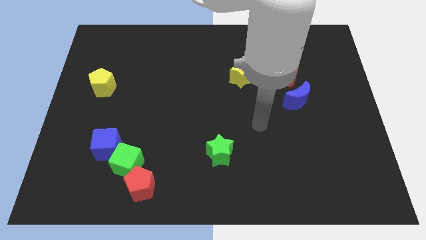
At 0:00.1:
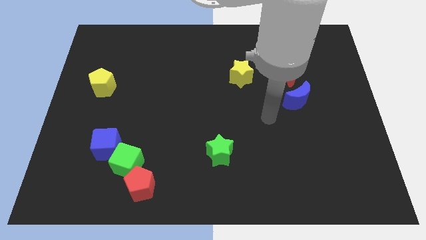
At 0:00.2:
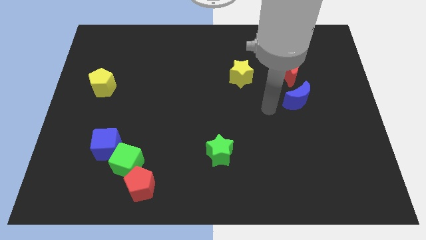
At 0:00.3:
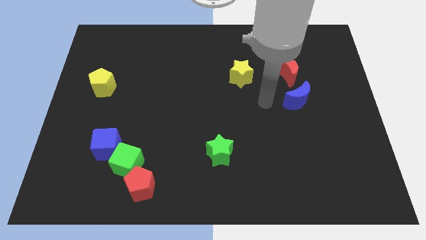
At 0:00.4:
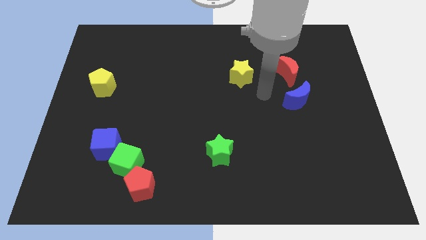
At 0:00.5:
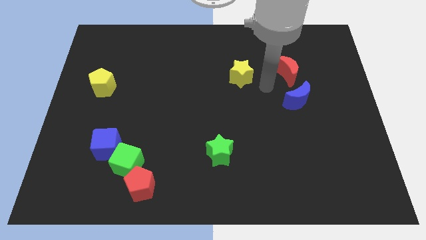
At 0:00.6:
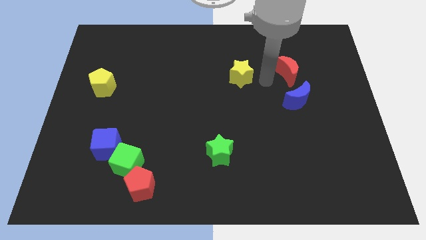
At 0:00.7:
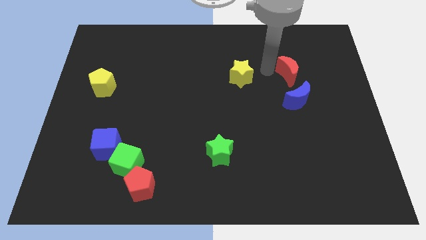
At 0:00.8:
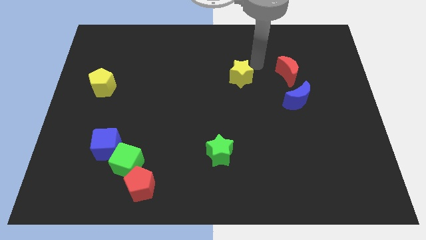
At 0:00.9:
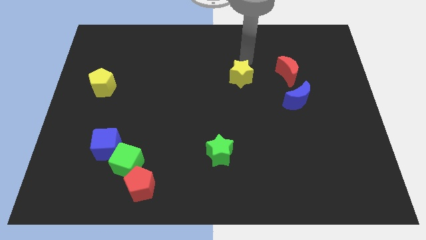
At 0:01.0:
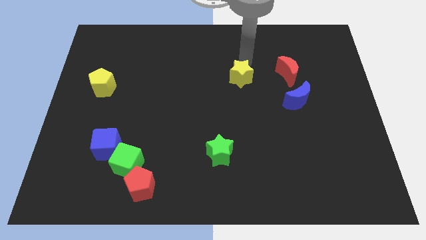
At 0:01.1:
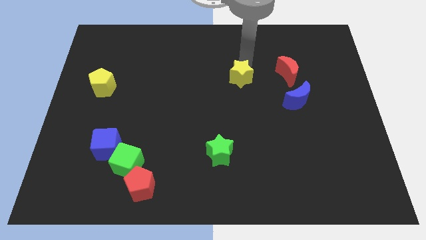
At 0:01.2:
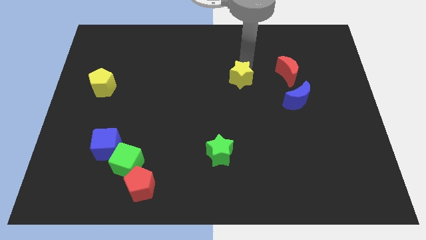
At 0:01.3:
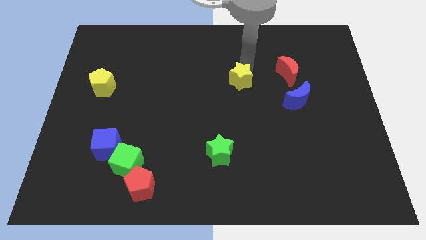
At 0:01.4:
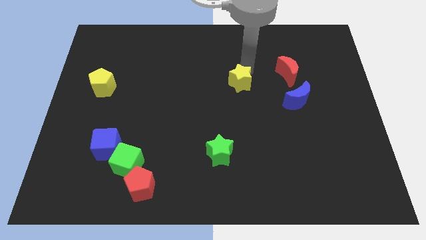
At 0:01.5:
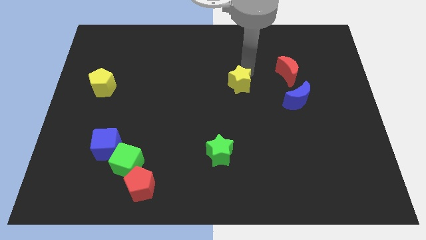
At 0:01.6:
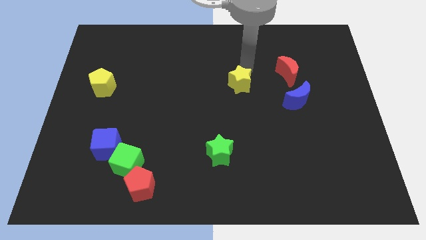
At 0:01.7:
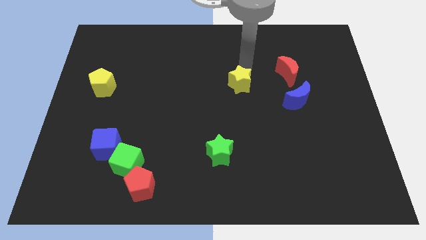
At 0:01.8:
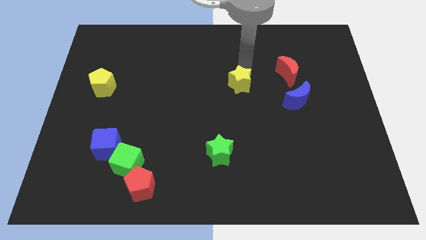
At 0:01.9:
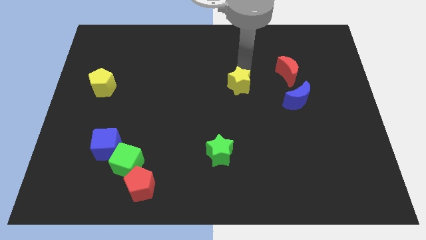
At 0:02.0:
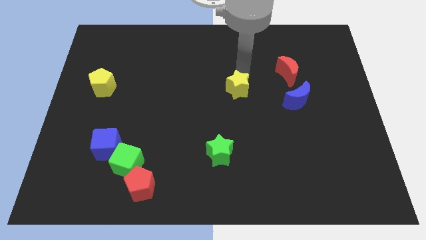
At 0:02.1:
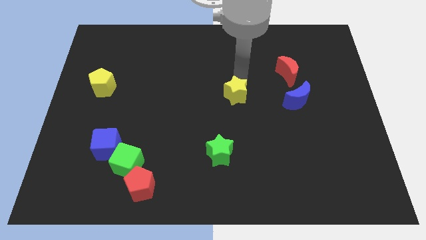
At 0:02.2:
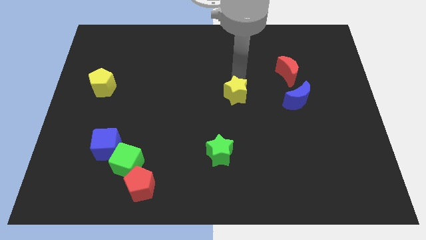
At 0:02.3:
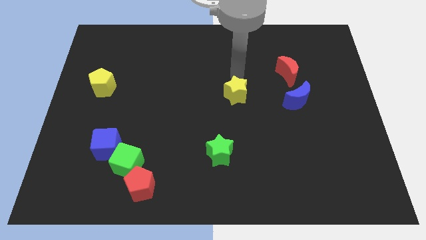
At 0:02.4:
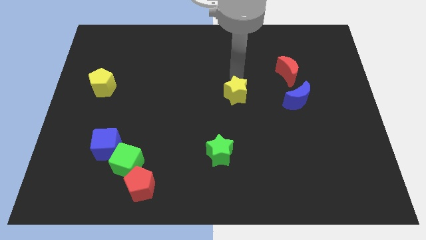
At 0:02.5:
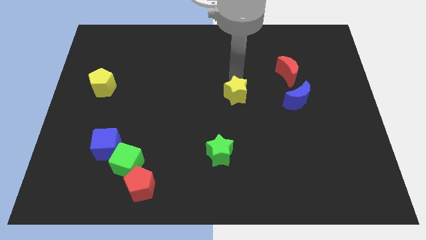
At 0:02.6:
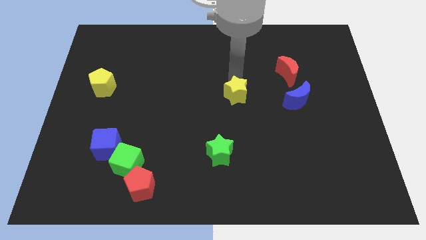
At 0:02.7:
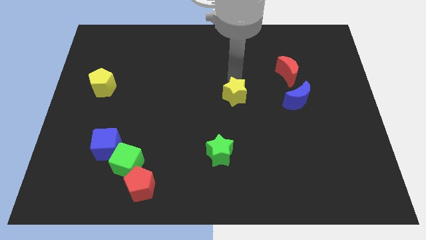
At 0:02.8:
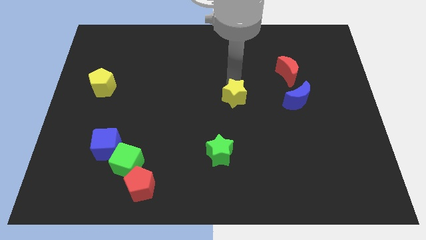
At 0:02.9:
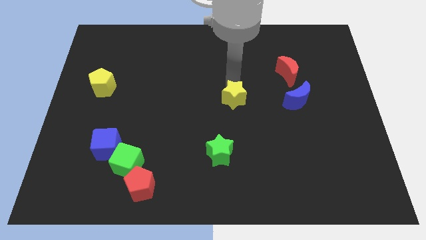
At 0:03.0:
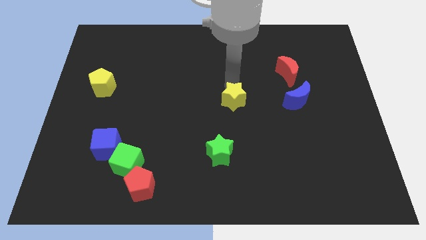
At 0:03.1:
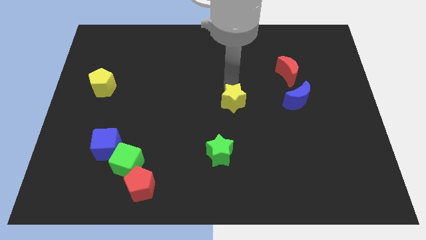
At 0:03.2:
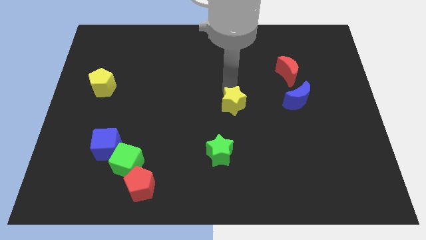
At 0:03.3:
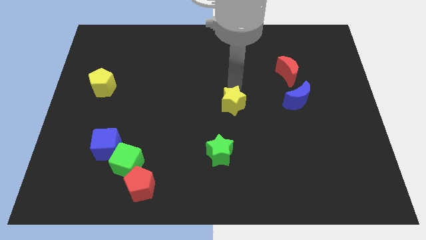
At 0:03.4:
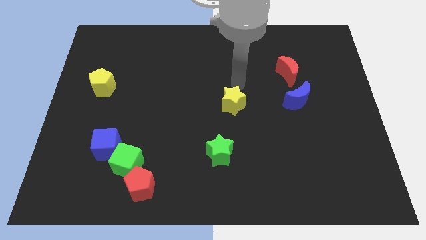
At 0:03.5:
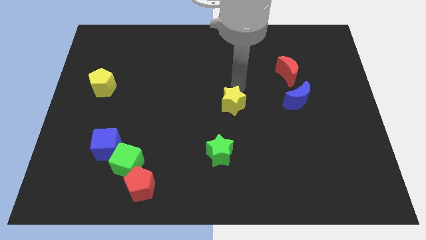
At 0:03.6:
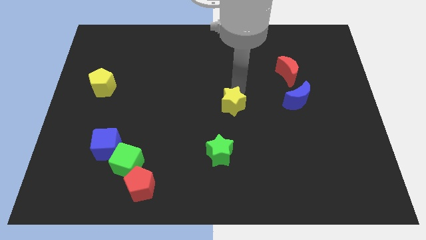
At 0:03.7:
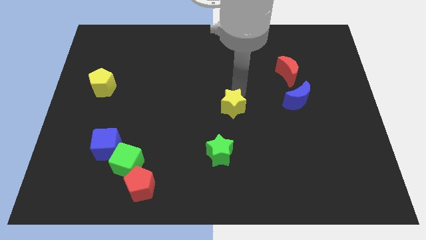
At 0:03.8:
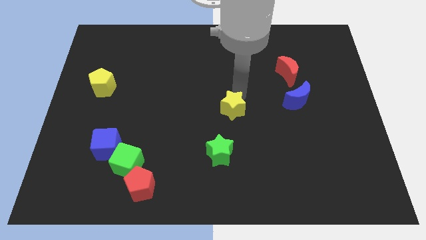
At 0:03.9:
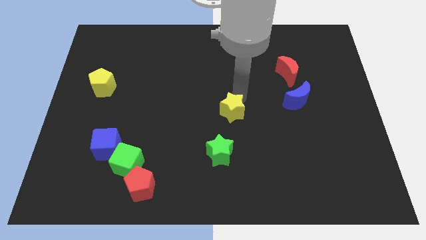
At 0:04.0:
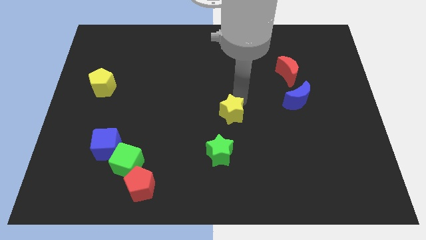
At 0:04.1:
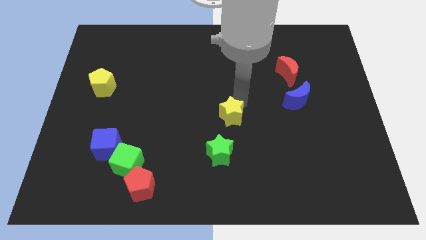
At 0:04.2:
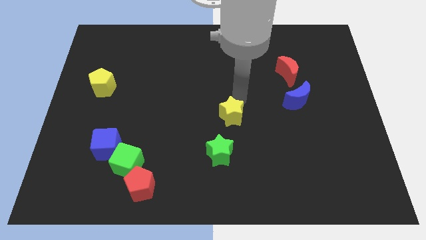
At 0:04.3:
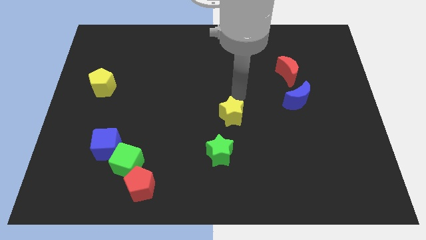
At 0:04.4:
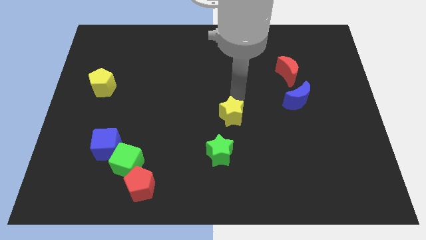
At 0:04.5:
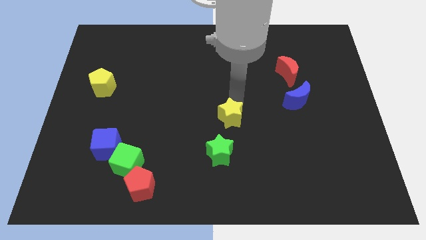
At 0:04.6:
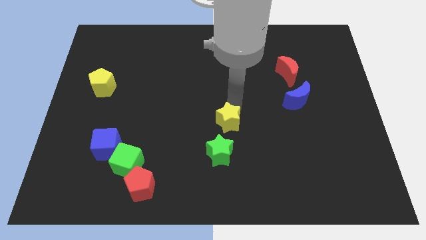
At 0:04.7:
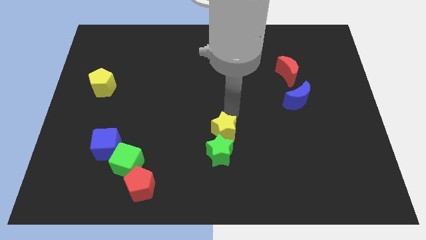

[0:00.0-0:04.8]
move the yellow star close to the green star

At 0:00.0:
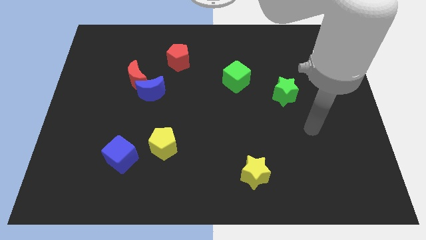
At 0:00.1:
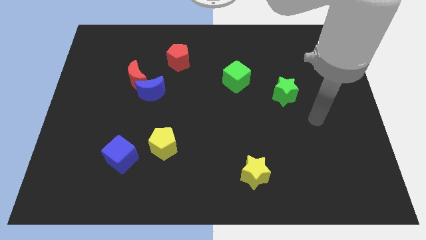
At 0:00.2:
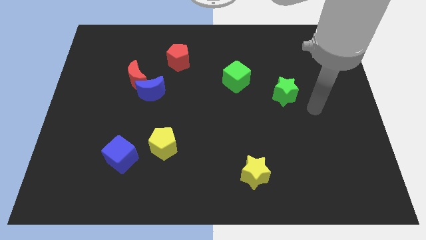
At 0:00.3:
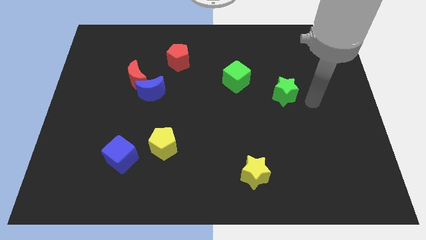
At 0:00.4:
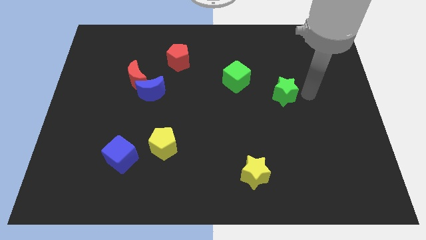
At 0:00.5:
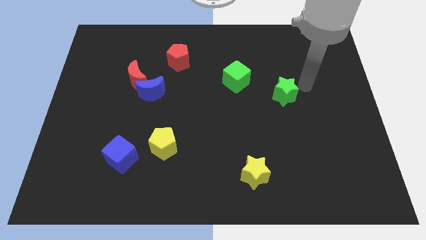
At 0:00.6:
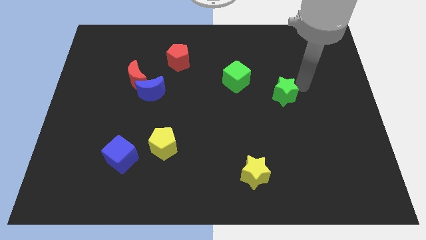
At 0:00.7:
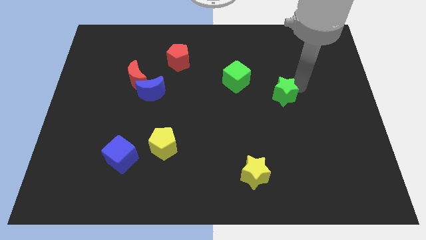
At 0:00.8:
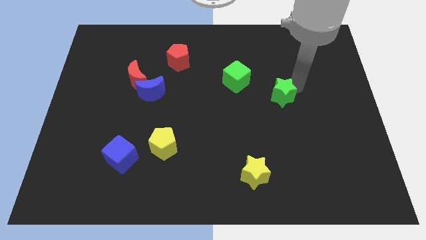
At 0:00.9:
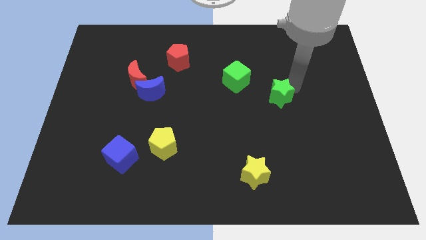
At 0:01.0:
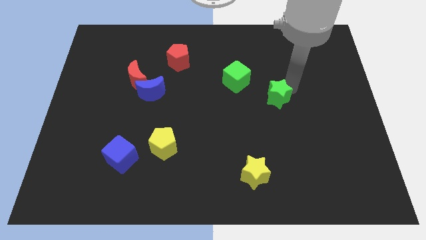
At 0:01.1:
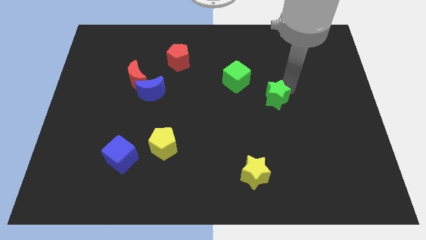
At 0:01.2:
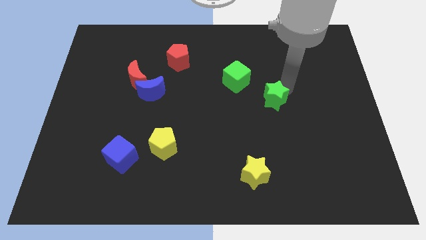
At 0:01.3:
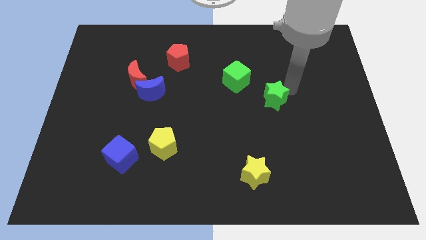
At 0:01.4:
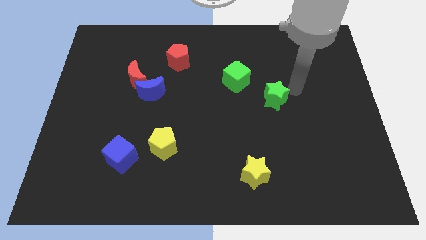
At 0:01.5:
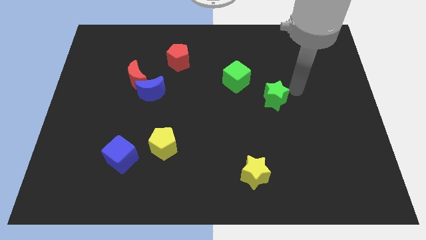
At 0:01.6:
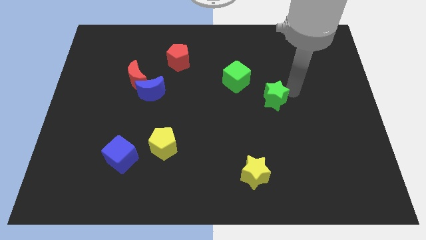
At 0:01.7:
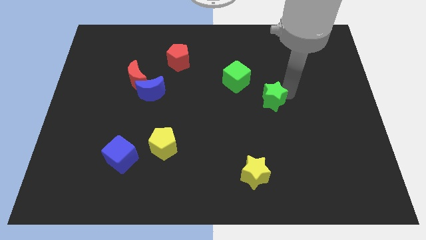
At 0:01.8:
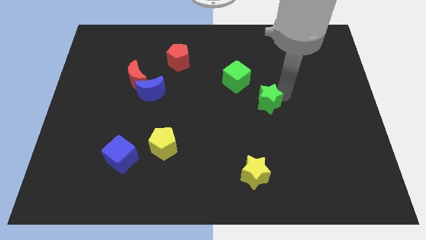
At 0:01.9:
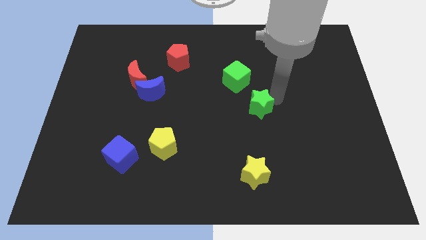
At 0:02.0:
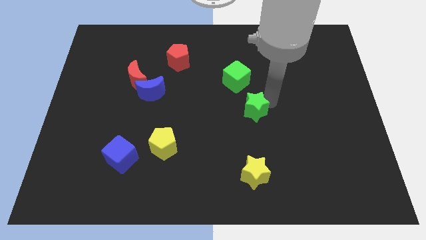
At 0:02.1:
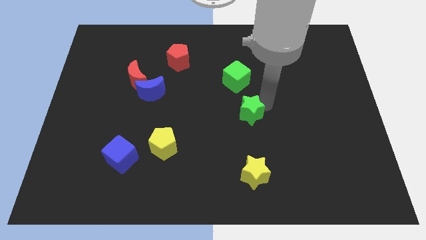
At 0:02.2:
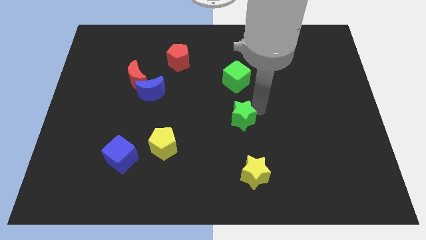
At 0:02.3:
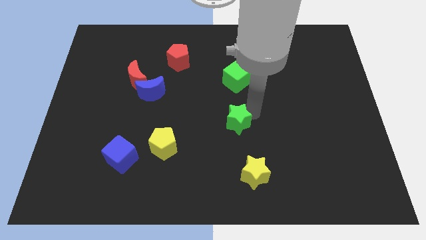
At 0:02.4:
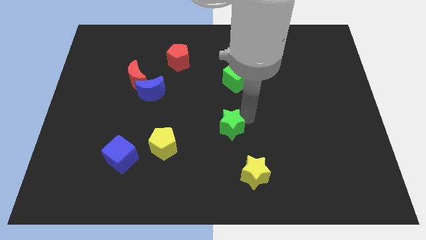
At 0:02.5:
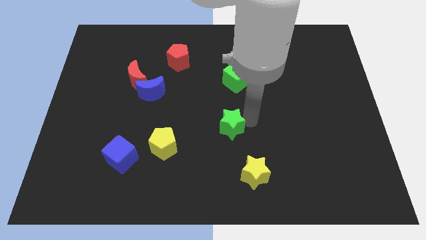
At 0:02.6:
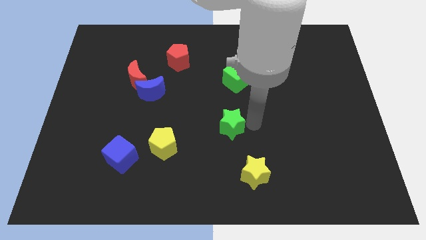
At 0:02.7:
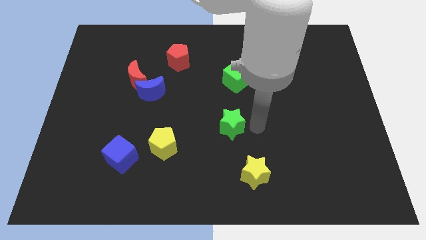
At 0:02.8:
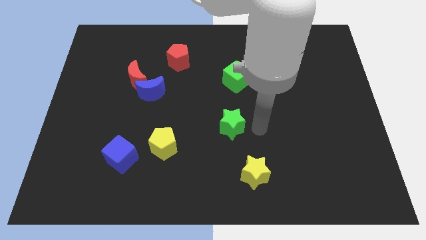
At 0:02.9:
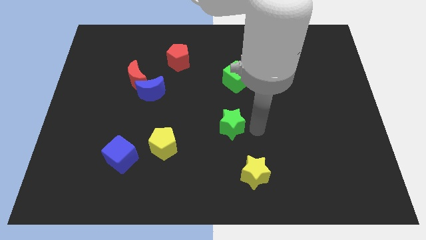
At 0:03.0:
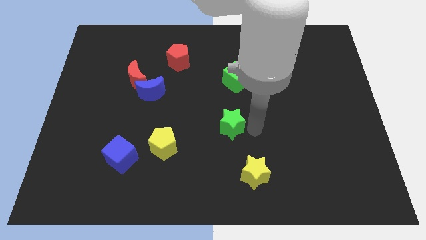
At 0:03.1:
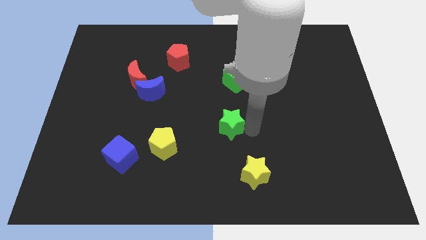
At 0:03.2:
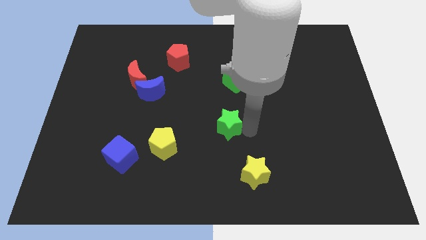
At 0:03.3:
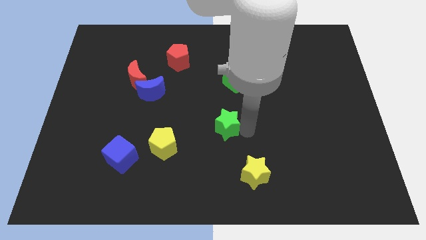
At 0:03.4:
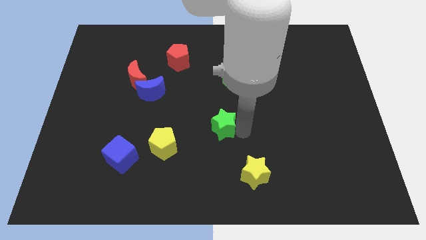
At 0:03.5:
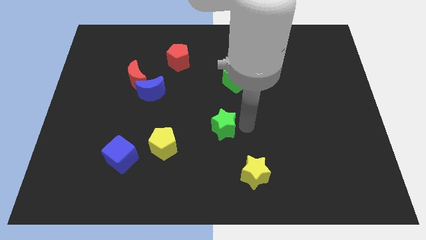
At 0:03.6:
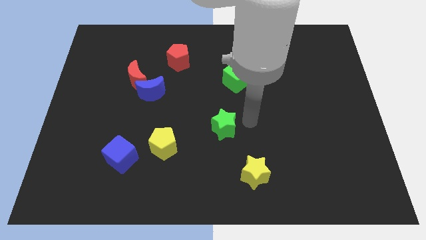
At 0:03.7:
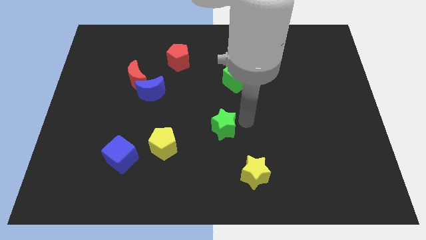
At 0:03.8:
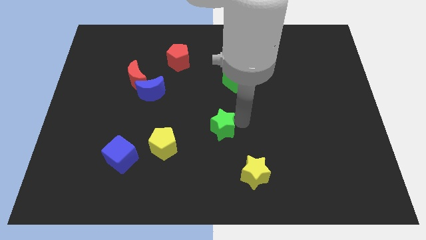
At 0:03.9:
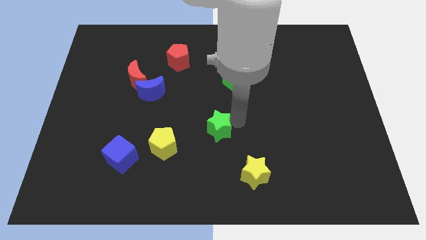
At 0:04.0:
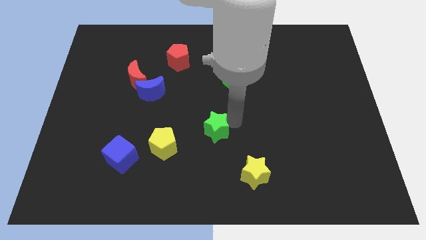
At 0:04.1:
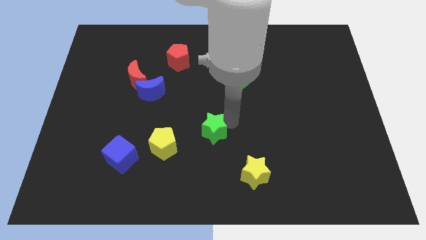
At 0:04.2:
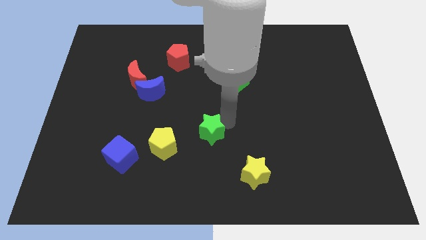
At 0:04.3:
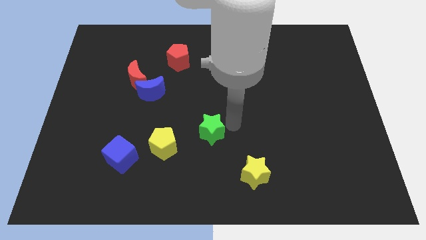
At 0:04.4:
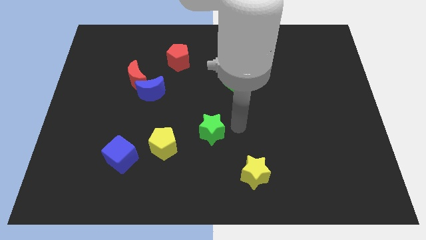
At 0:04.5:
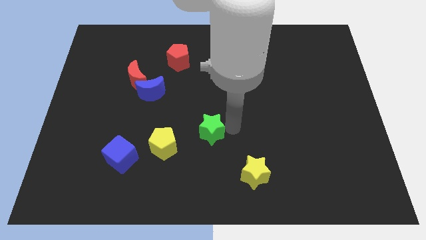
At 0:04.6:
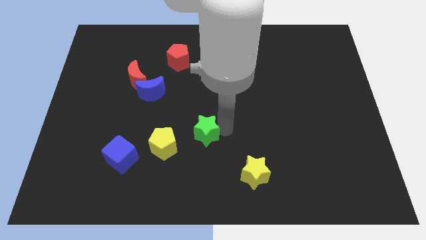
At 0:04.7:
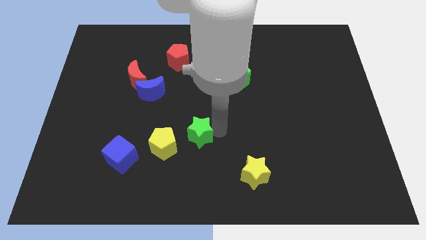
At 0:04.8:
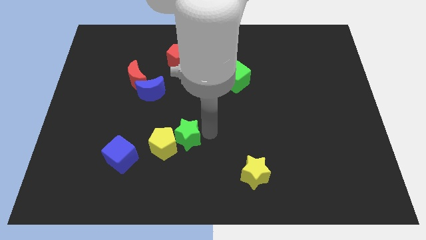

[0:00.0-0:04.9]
move the green star close to the yellow pentagon
